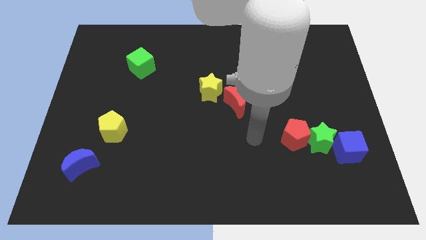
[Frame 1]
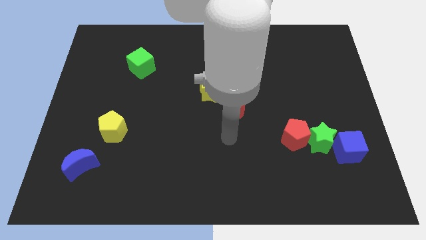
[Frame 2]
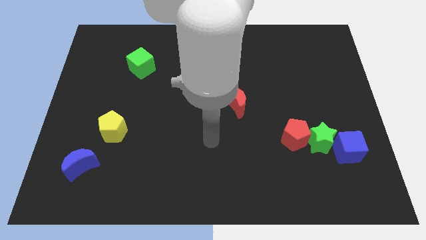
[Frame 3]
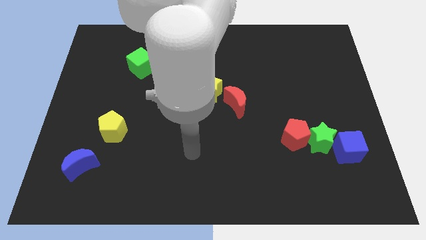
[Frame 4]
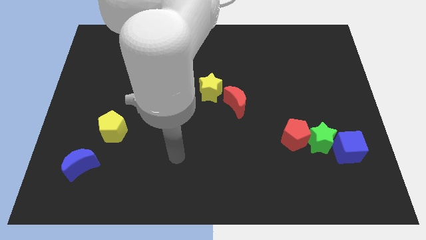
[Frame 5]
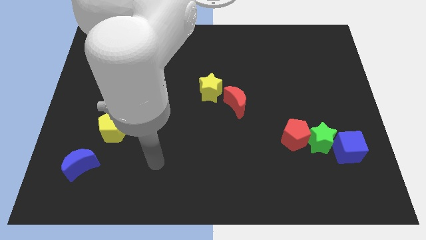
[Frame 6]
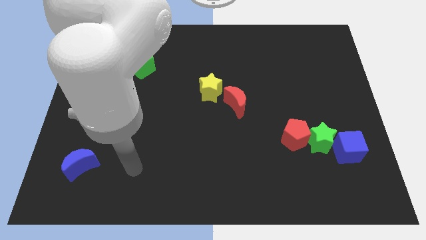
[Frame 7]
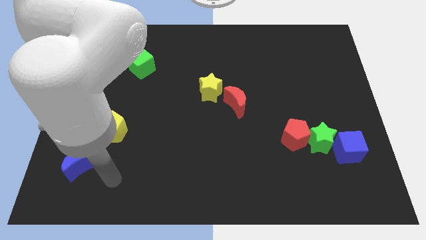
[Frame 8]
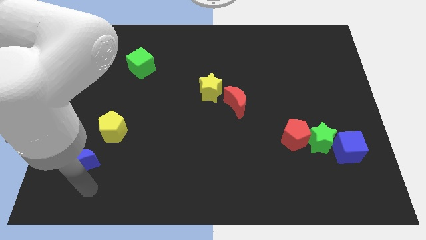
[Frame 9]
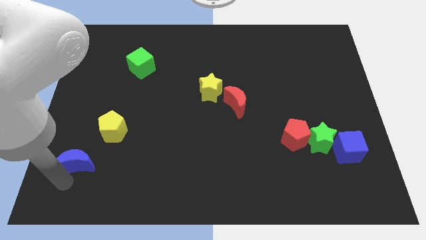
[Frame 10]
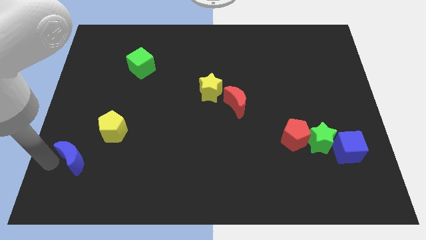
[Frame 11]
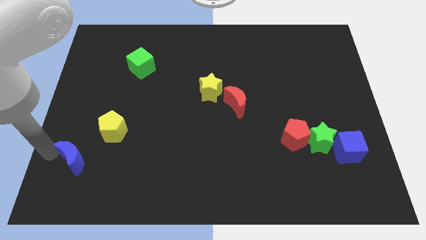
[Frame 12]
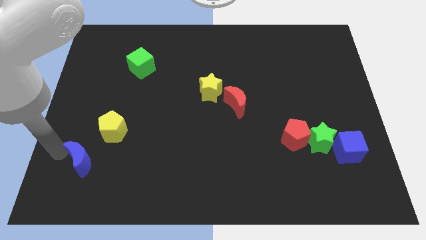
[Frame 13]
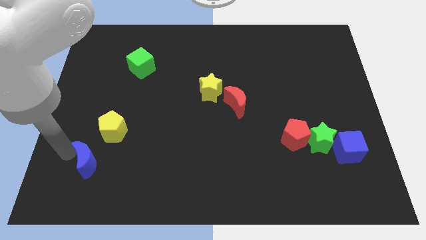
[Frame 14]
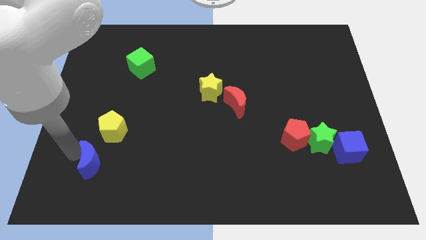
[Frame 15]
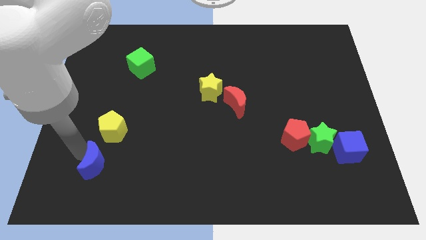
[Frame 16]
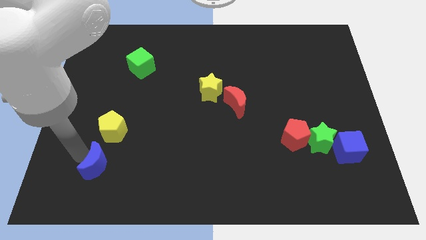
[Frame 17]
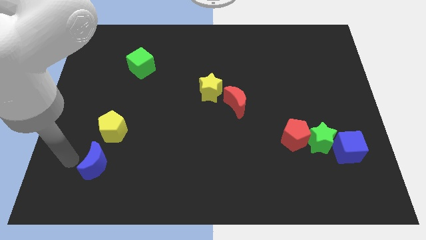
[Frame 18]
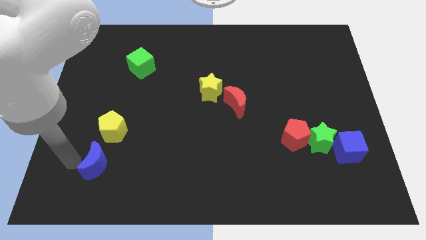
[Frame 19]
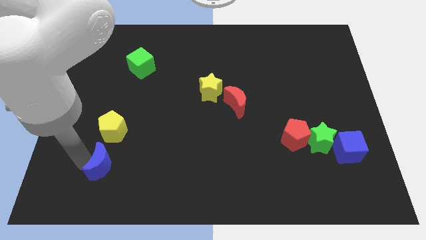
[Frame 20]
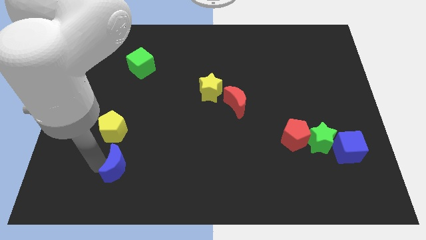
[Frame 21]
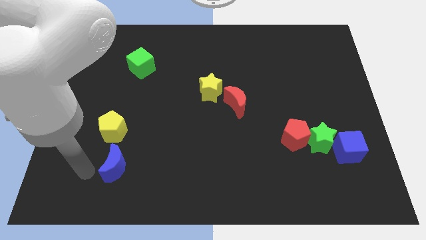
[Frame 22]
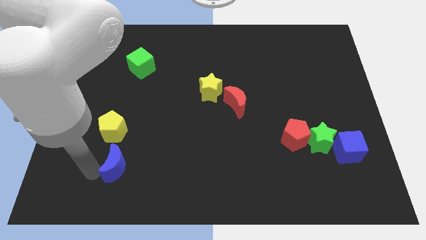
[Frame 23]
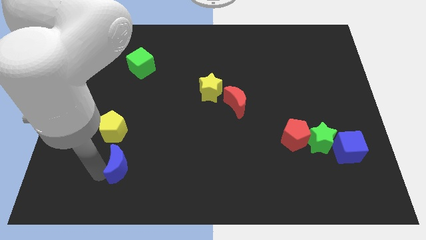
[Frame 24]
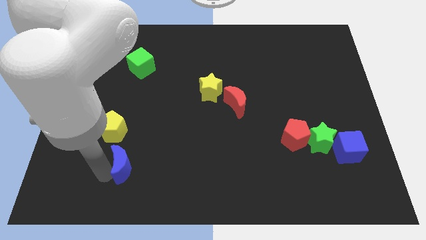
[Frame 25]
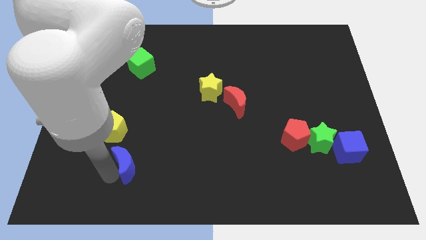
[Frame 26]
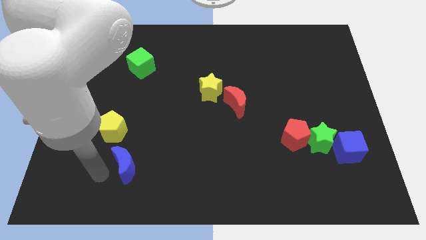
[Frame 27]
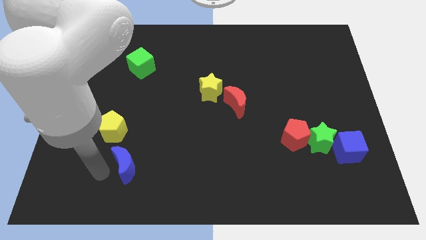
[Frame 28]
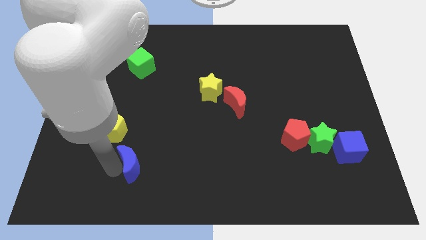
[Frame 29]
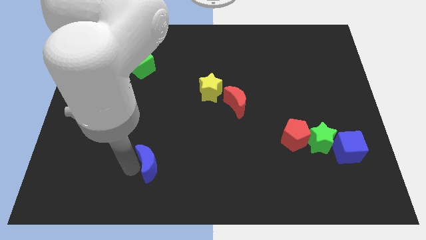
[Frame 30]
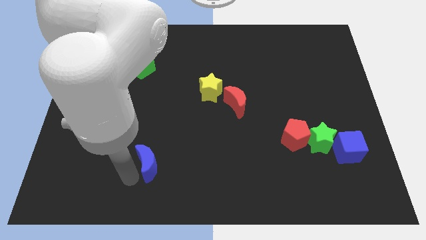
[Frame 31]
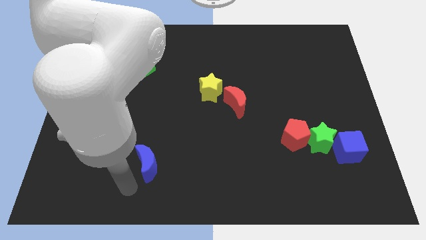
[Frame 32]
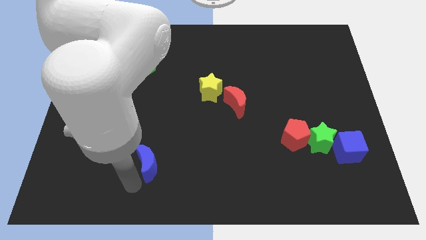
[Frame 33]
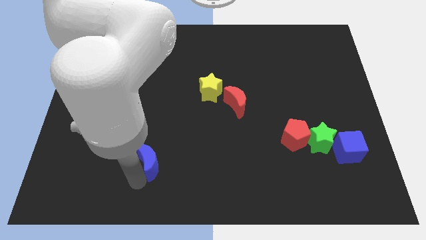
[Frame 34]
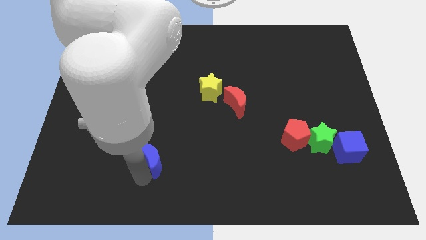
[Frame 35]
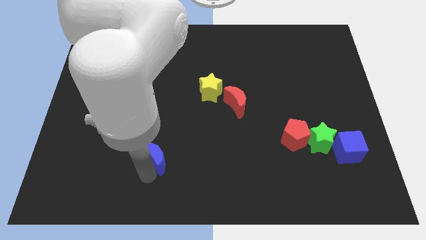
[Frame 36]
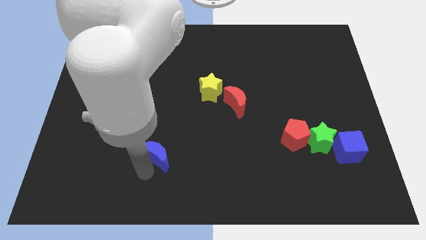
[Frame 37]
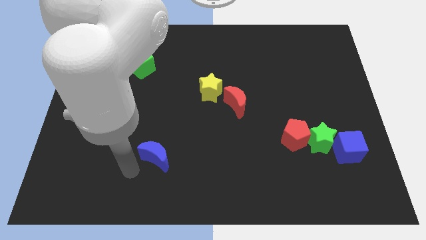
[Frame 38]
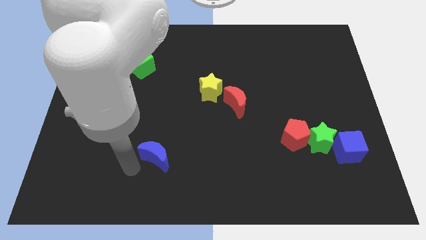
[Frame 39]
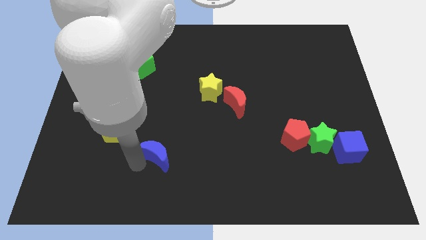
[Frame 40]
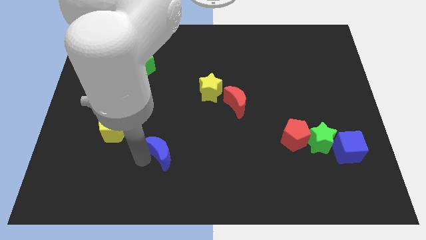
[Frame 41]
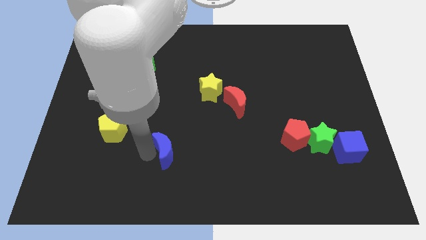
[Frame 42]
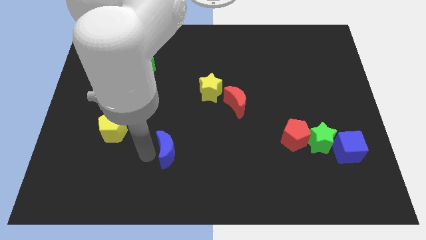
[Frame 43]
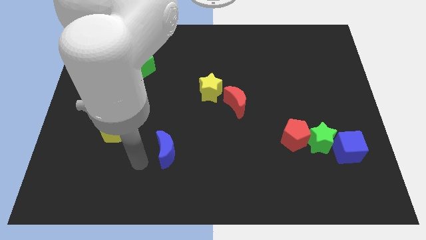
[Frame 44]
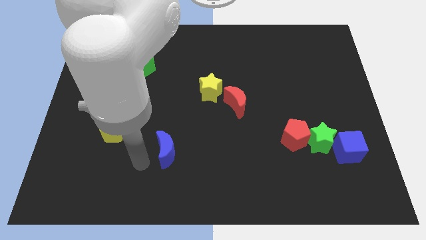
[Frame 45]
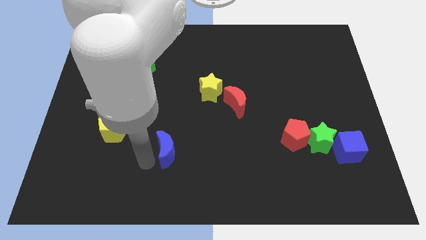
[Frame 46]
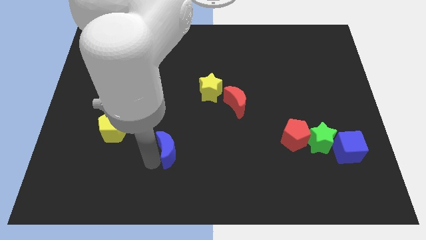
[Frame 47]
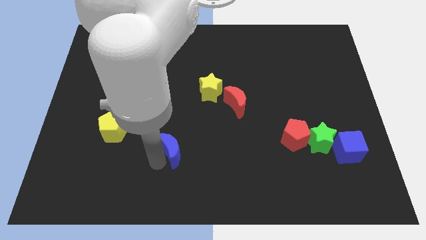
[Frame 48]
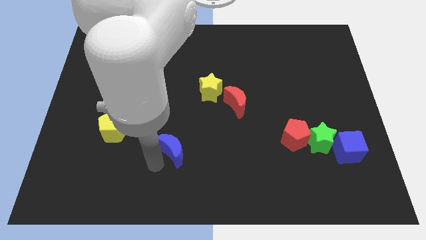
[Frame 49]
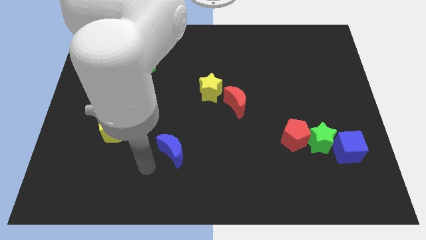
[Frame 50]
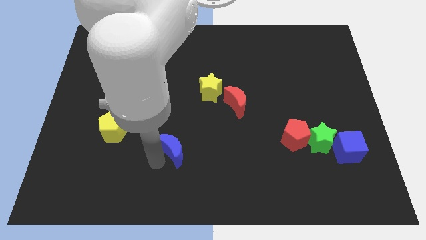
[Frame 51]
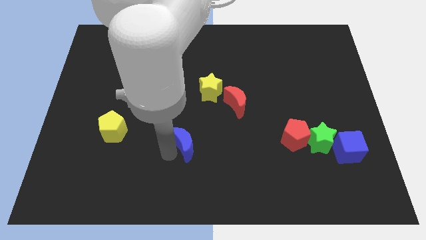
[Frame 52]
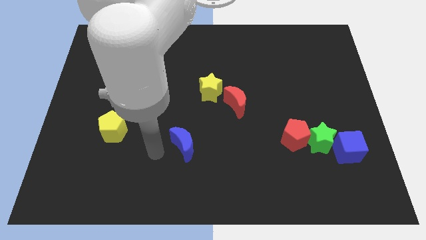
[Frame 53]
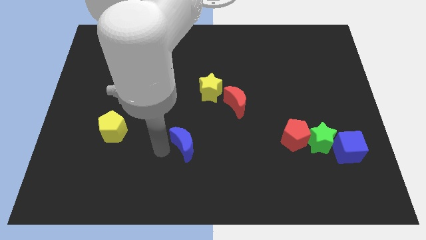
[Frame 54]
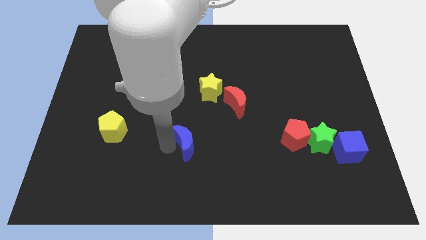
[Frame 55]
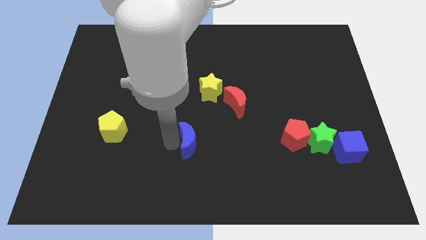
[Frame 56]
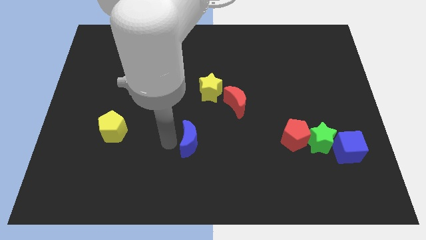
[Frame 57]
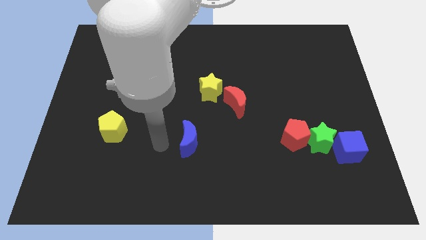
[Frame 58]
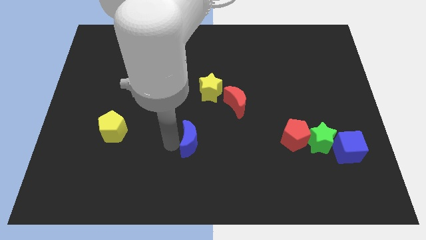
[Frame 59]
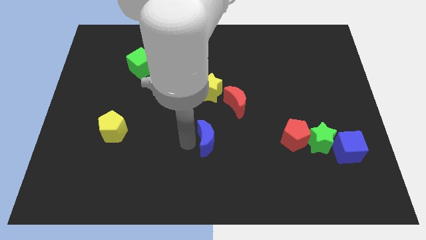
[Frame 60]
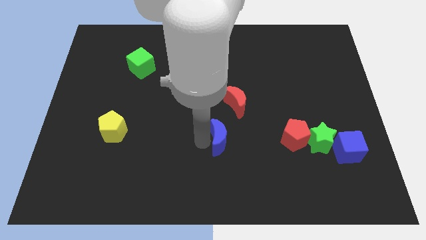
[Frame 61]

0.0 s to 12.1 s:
put the blue moon left of the red pentagon

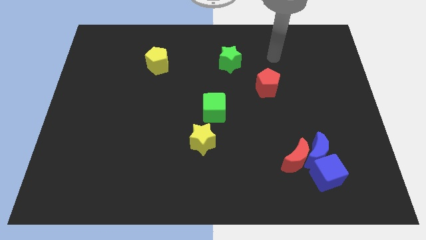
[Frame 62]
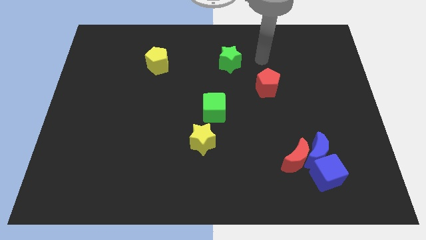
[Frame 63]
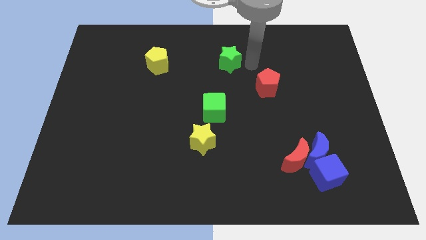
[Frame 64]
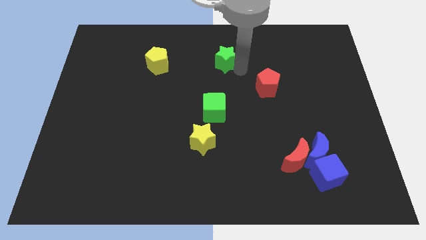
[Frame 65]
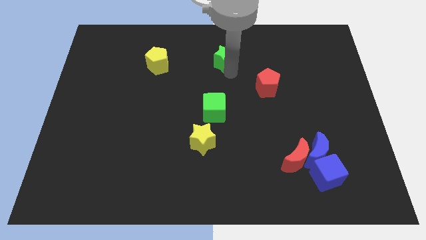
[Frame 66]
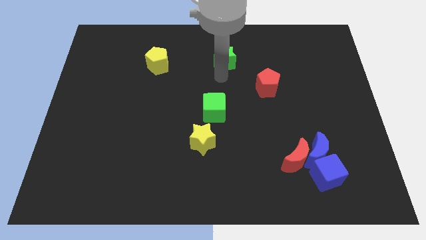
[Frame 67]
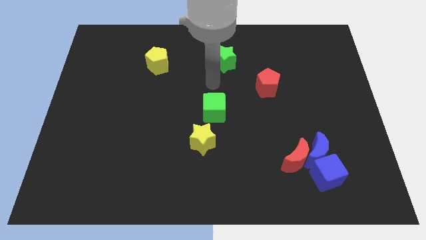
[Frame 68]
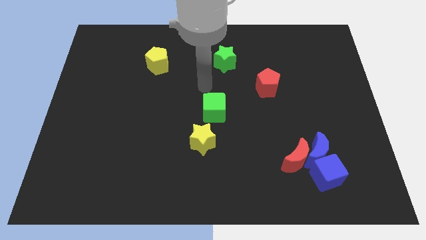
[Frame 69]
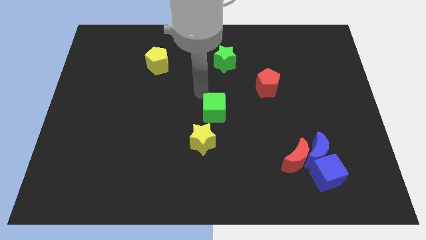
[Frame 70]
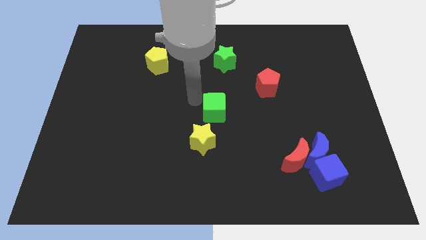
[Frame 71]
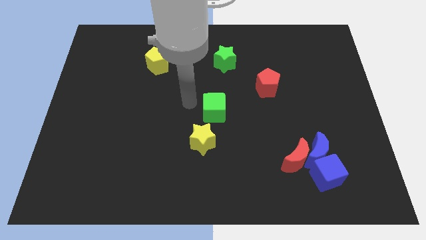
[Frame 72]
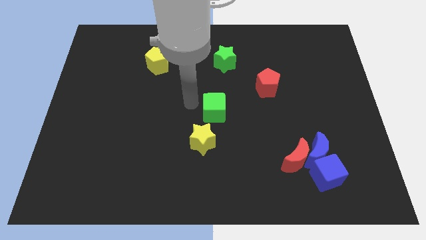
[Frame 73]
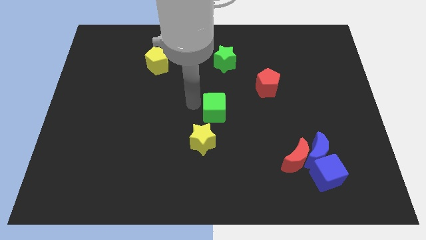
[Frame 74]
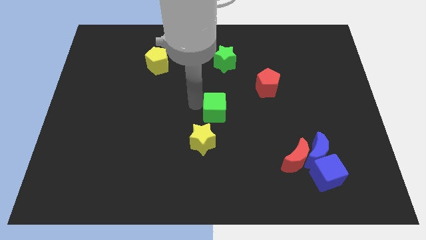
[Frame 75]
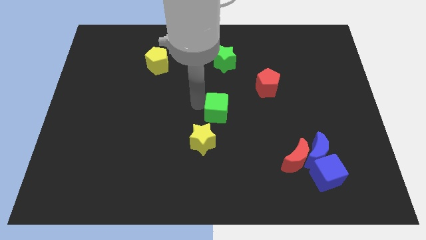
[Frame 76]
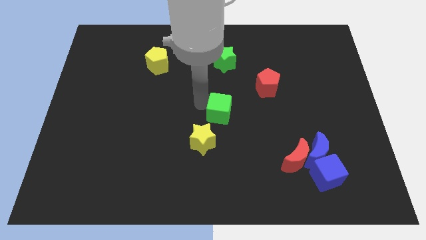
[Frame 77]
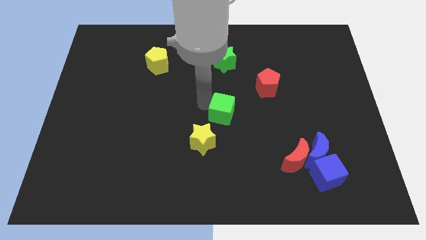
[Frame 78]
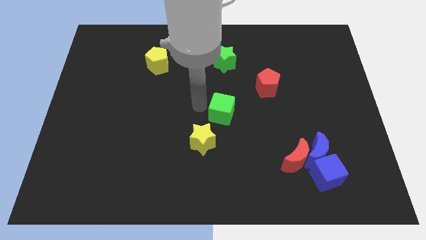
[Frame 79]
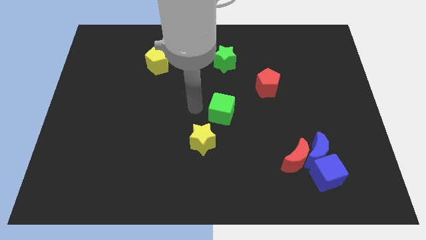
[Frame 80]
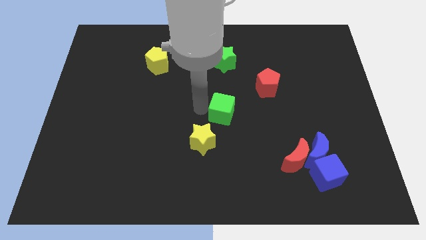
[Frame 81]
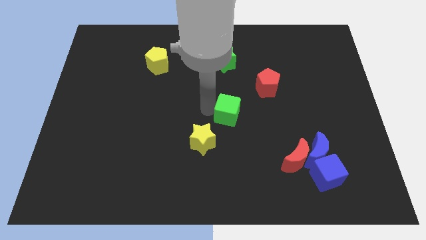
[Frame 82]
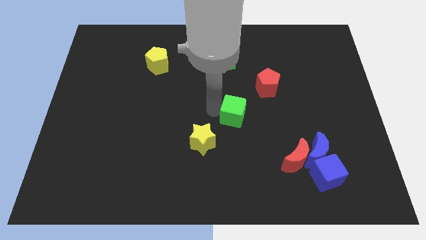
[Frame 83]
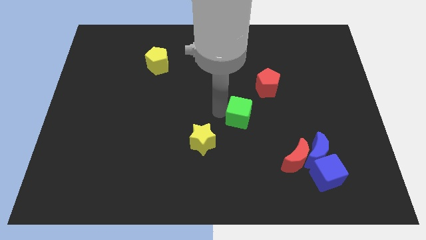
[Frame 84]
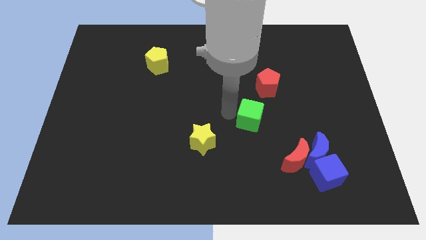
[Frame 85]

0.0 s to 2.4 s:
slide the green cube to the bottom of the red pentagon
